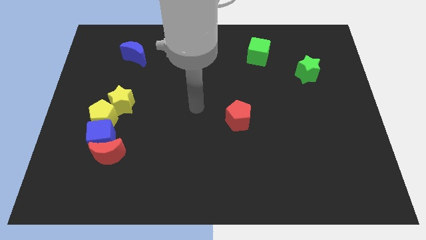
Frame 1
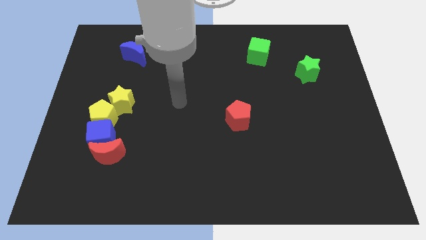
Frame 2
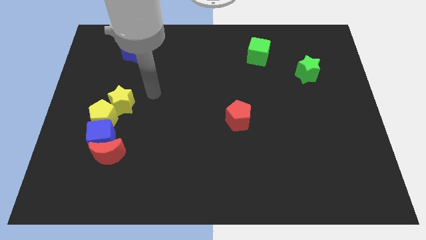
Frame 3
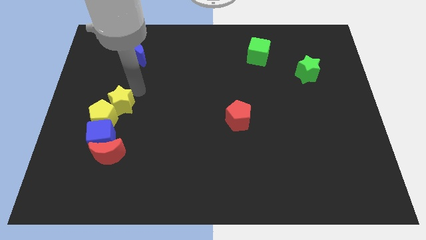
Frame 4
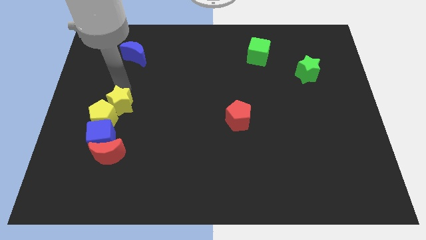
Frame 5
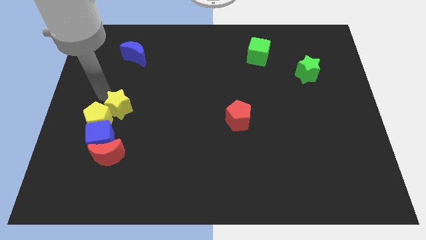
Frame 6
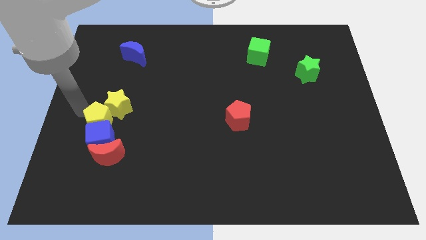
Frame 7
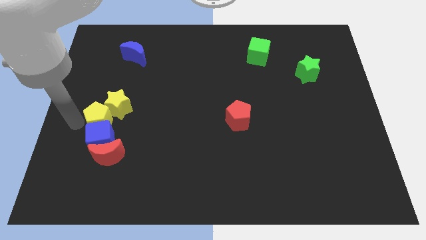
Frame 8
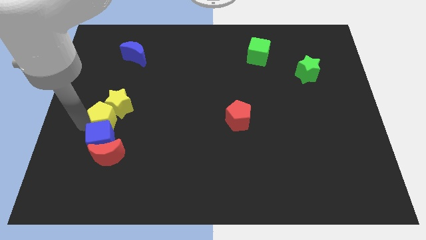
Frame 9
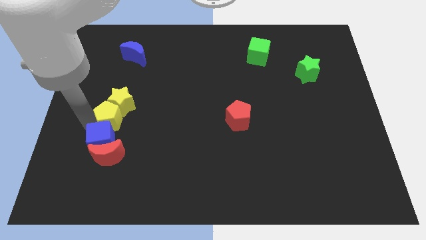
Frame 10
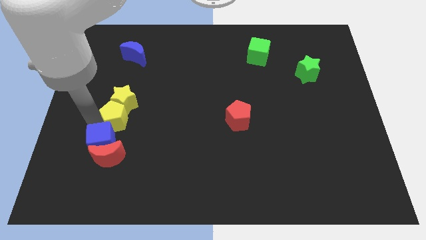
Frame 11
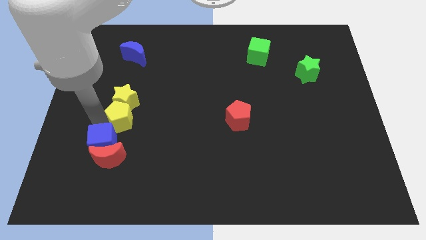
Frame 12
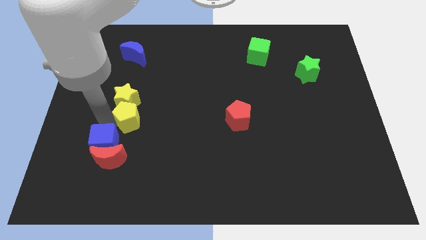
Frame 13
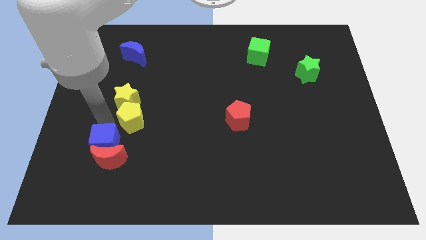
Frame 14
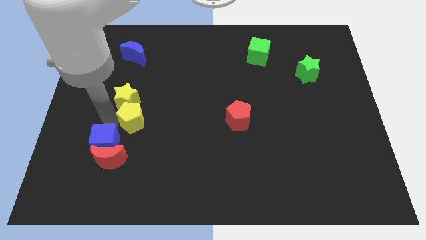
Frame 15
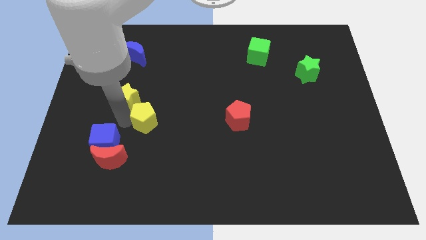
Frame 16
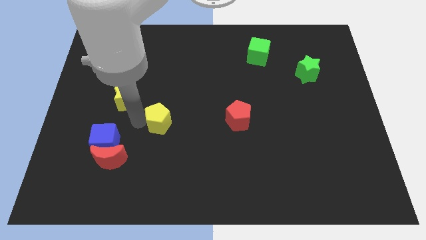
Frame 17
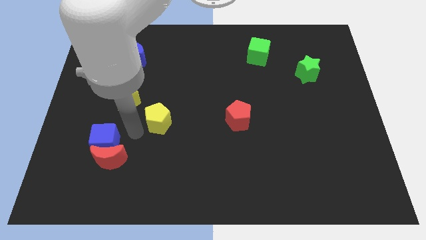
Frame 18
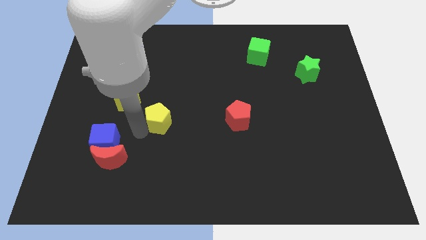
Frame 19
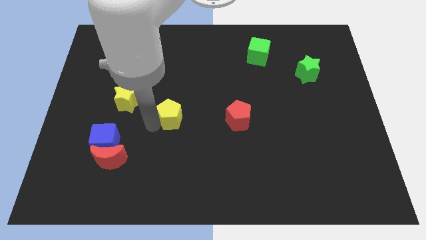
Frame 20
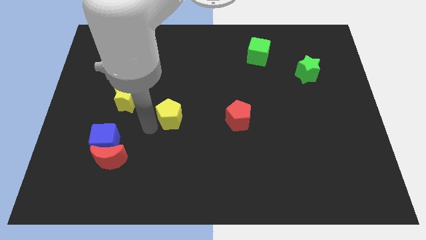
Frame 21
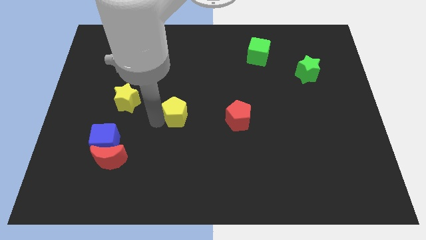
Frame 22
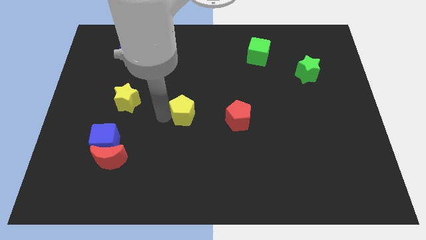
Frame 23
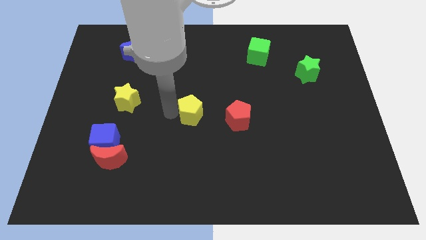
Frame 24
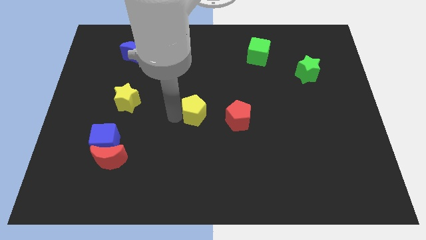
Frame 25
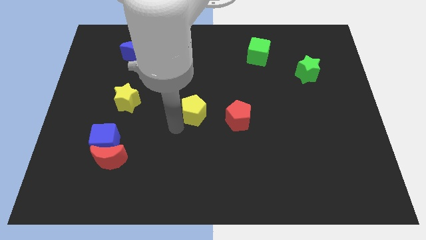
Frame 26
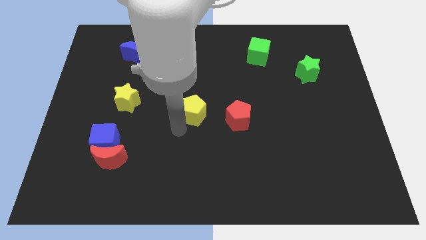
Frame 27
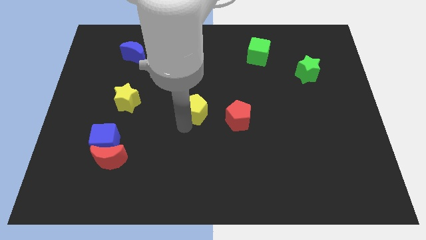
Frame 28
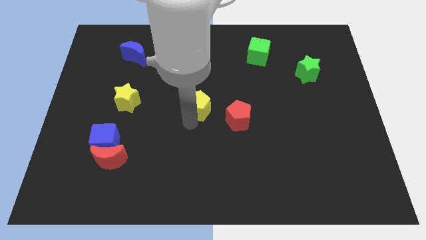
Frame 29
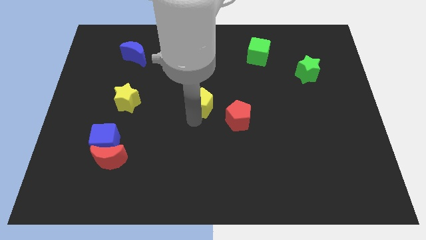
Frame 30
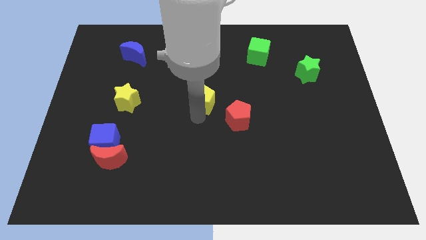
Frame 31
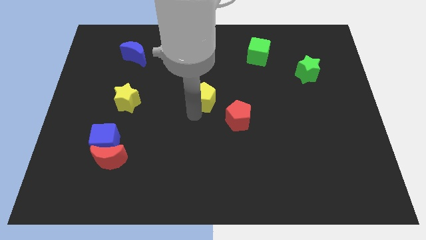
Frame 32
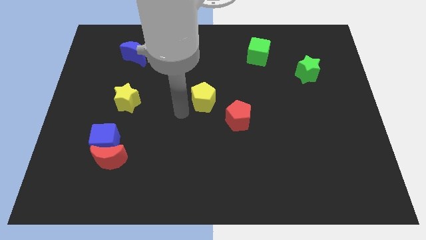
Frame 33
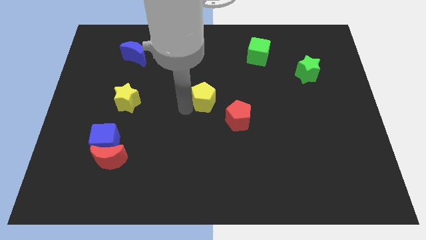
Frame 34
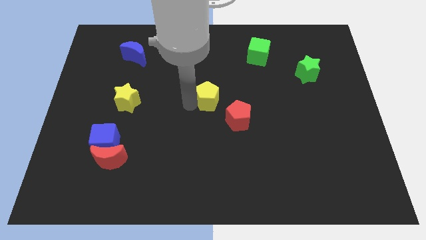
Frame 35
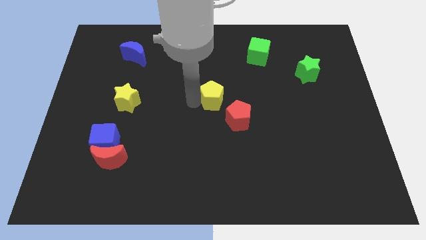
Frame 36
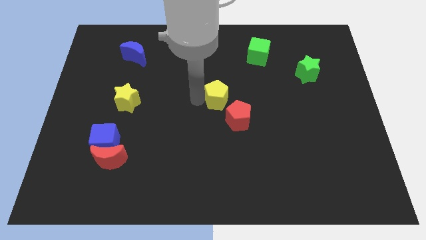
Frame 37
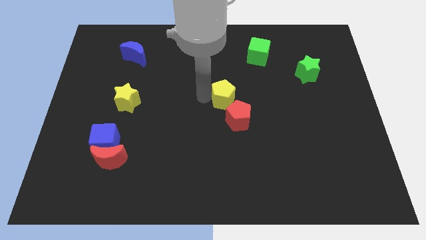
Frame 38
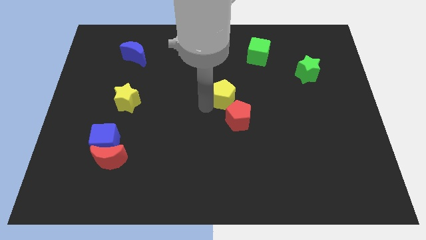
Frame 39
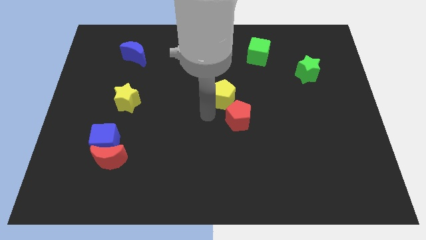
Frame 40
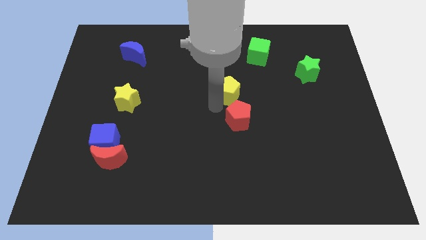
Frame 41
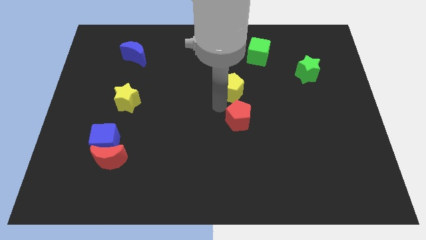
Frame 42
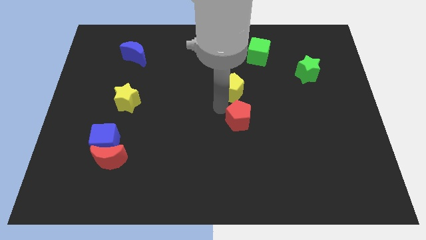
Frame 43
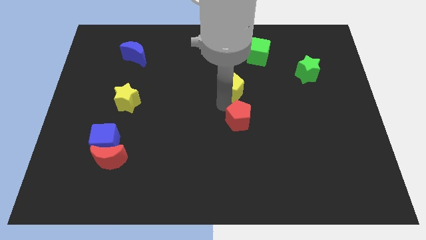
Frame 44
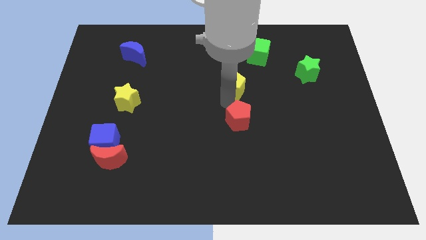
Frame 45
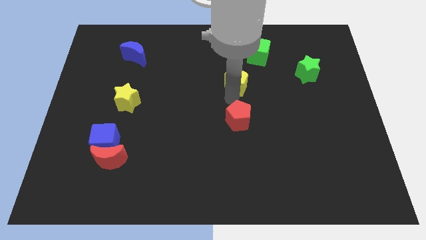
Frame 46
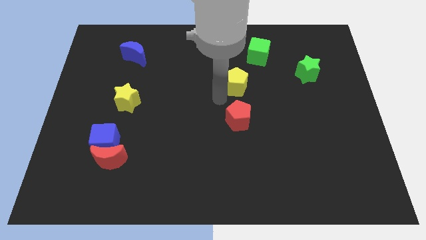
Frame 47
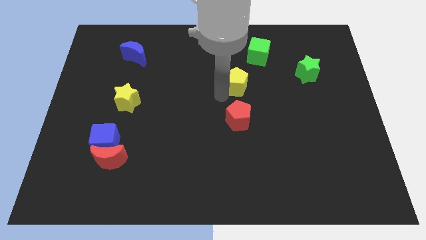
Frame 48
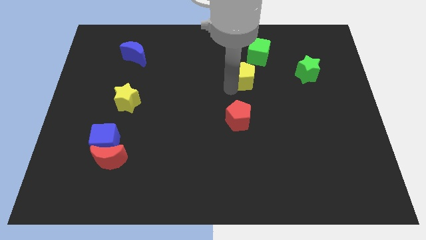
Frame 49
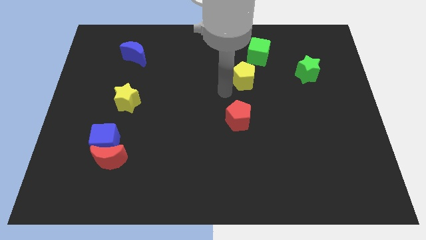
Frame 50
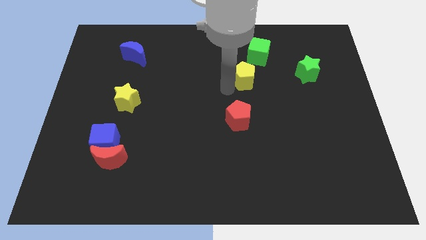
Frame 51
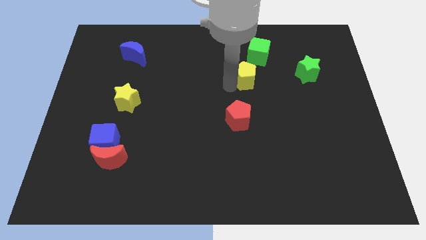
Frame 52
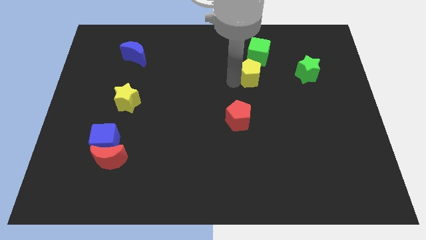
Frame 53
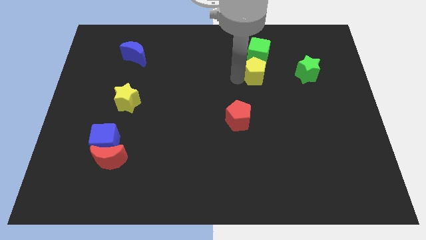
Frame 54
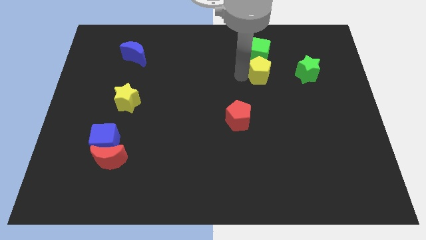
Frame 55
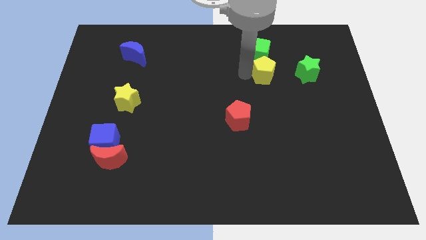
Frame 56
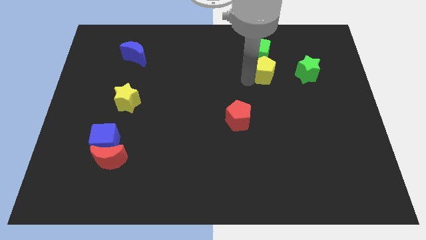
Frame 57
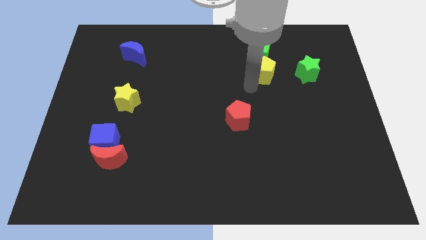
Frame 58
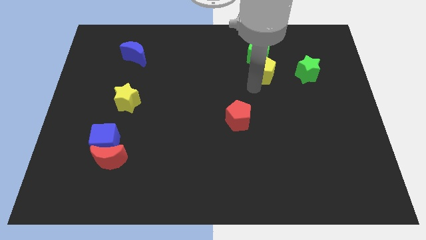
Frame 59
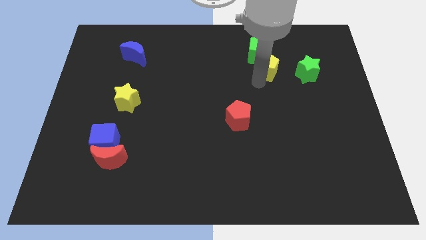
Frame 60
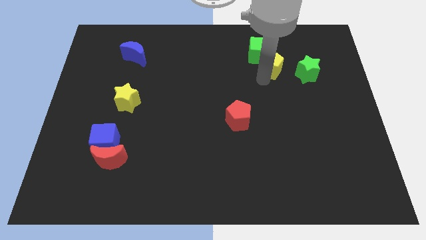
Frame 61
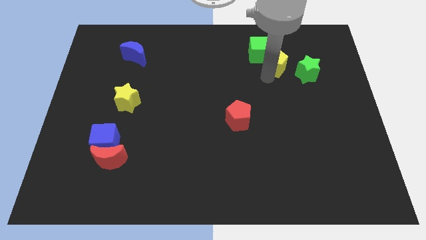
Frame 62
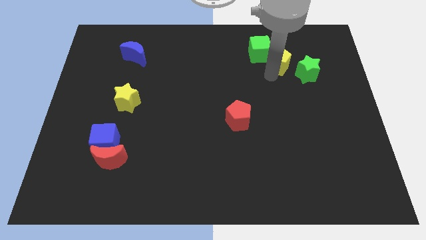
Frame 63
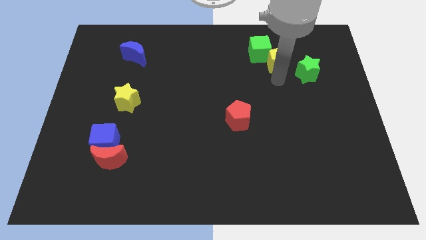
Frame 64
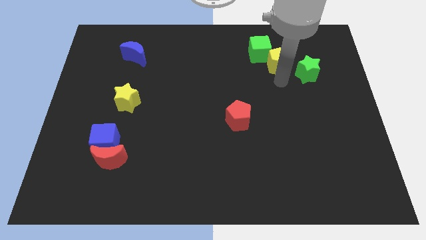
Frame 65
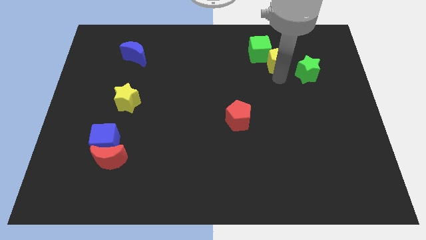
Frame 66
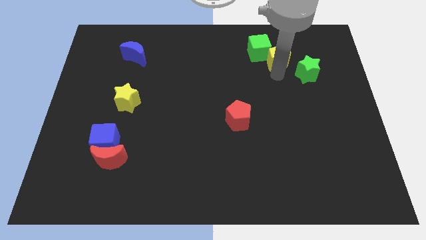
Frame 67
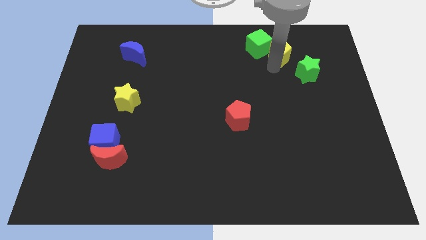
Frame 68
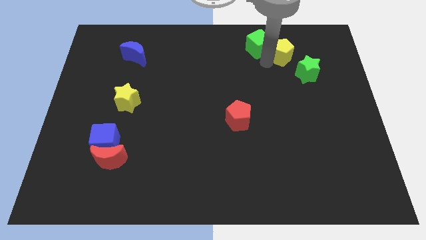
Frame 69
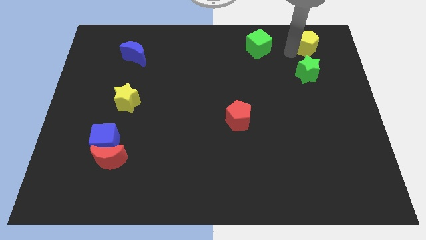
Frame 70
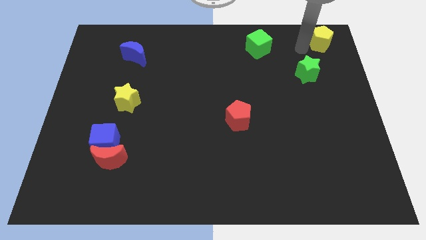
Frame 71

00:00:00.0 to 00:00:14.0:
put the yellow pentagon to the top right corner
